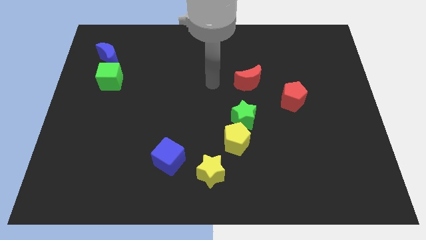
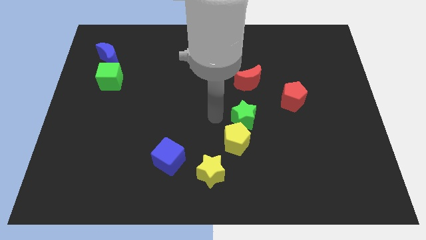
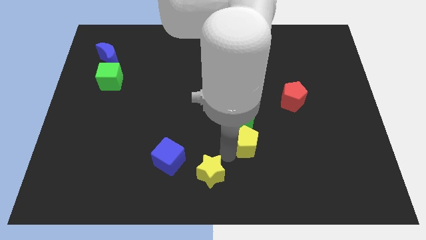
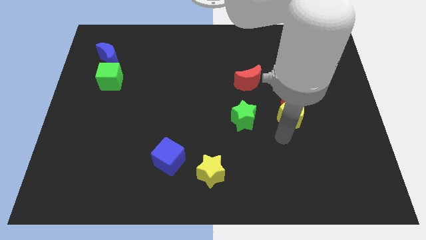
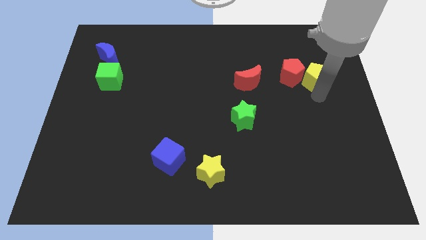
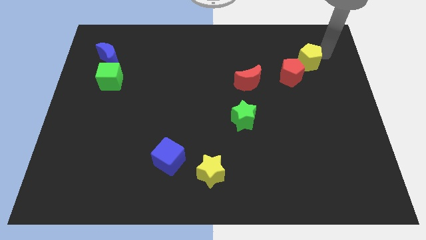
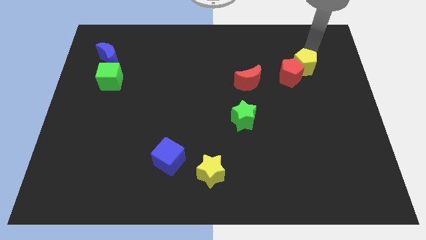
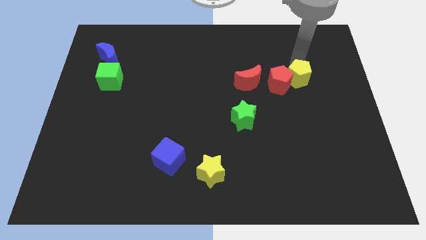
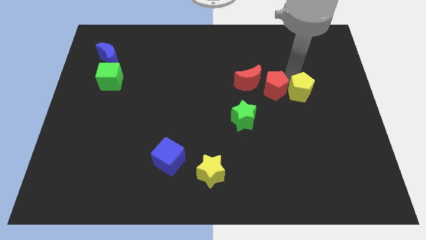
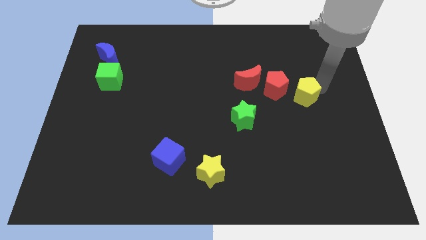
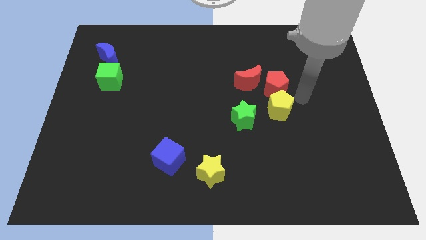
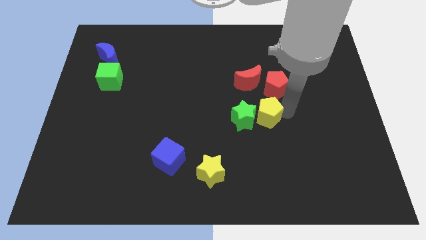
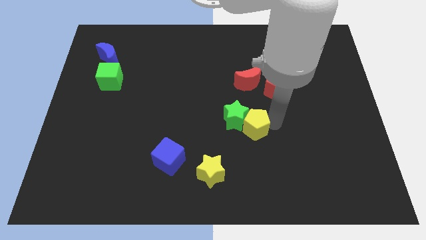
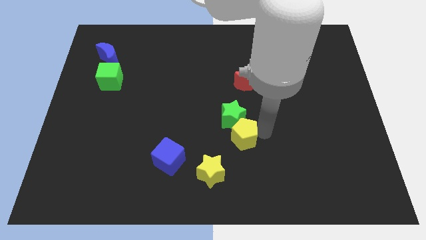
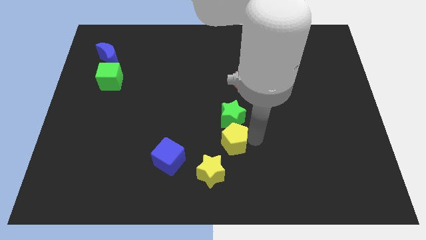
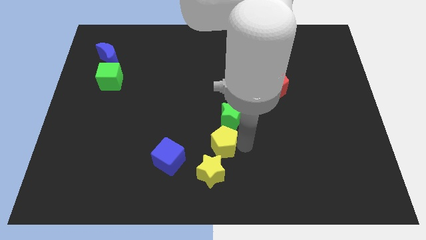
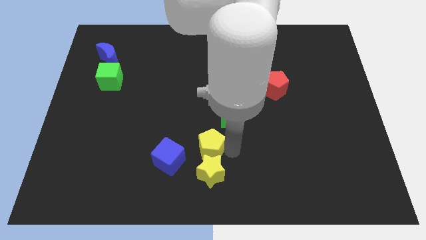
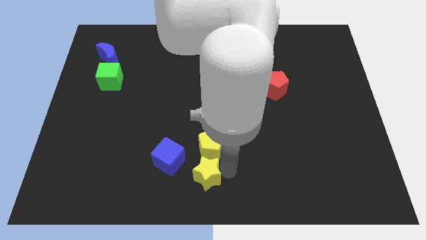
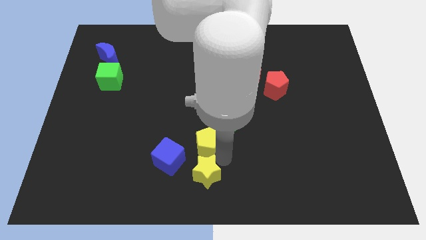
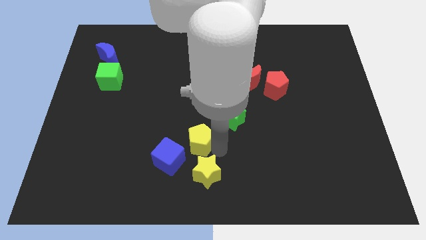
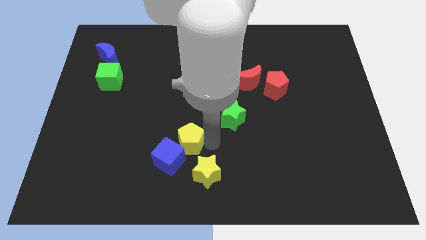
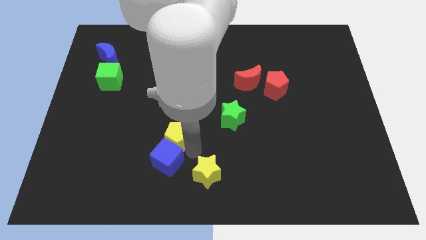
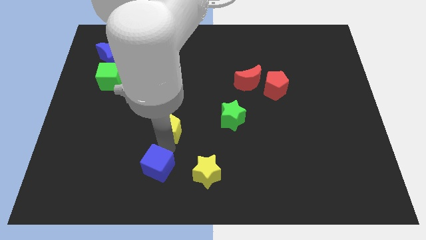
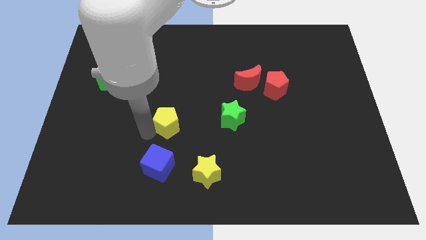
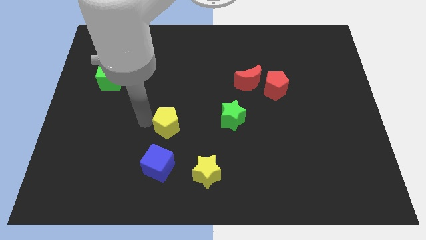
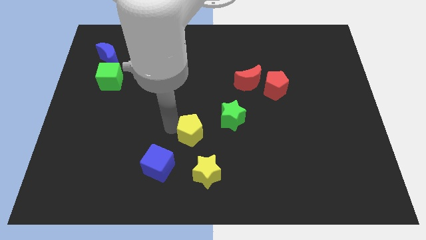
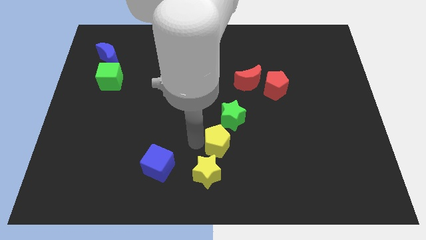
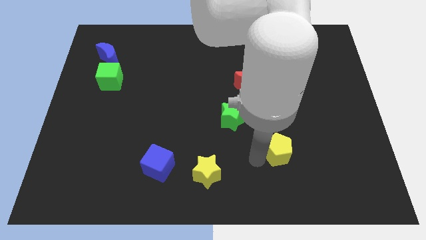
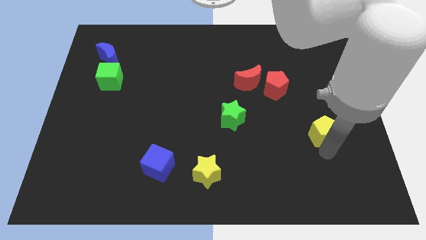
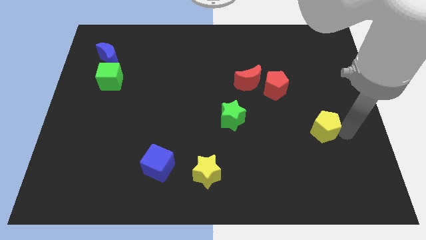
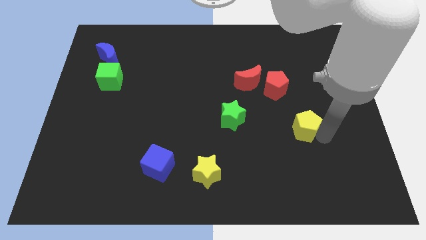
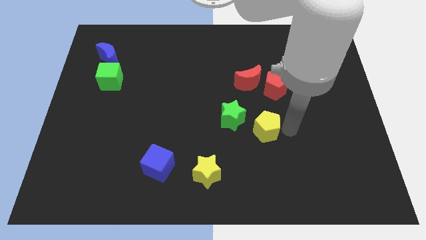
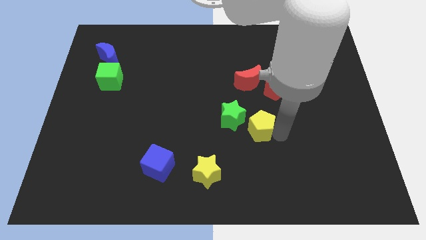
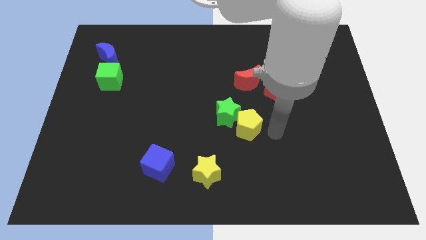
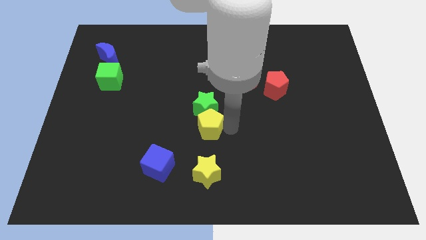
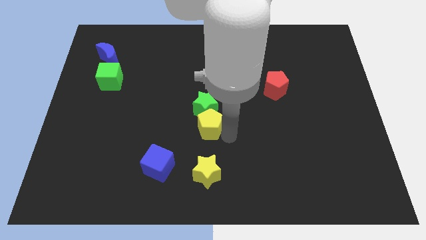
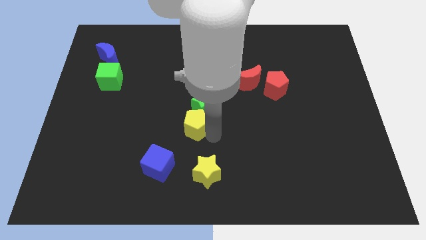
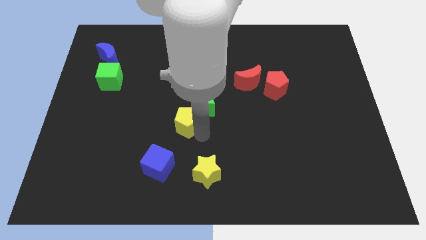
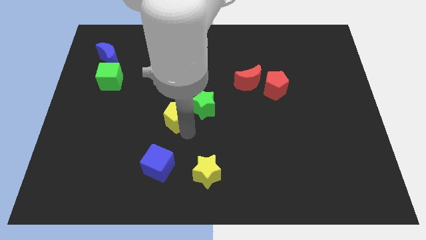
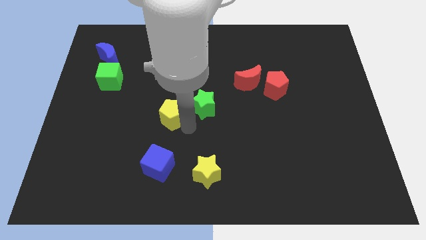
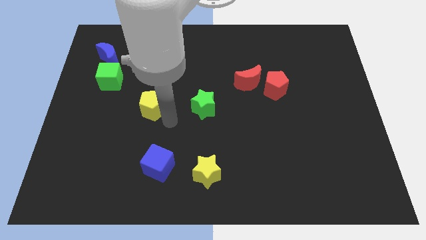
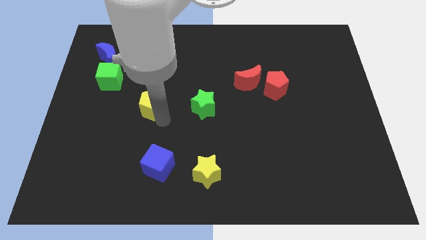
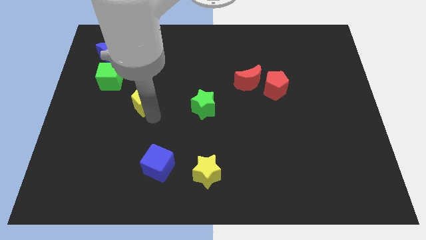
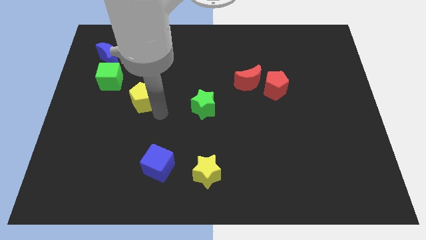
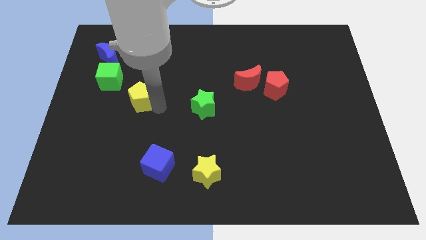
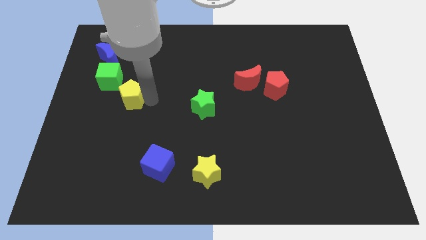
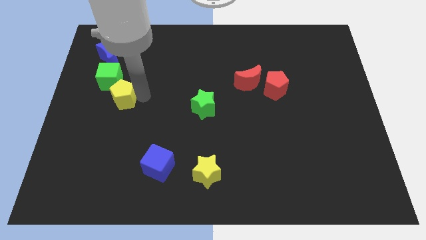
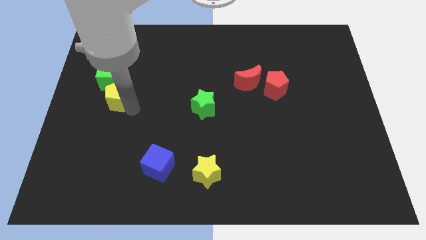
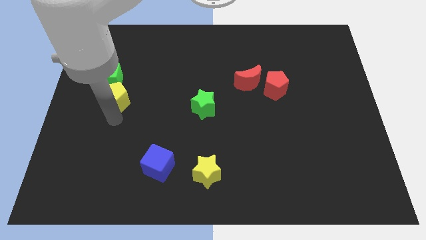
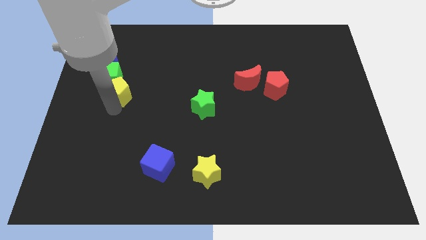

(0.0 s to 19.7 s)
push the yellow pentagon next to the green cube

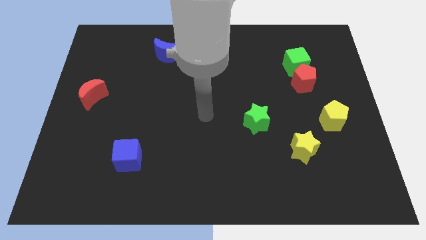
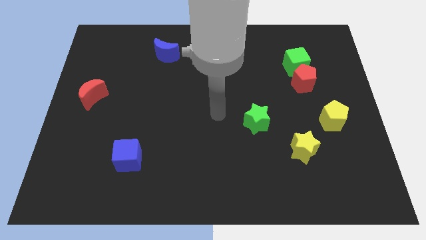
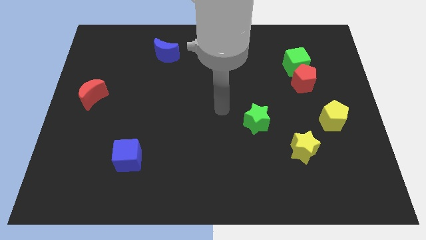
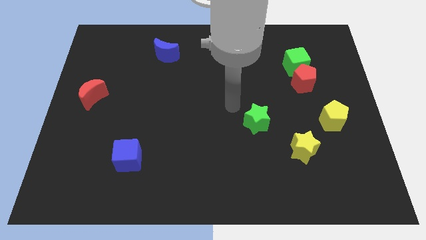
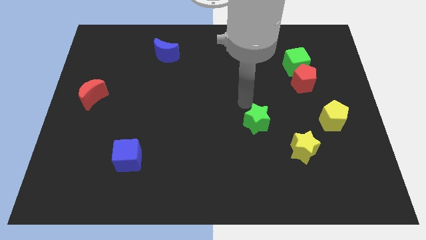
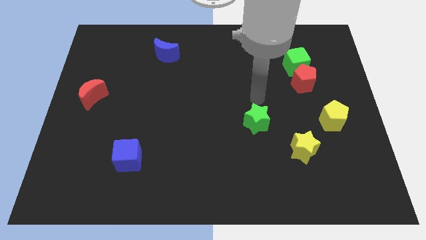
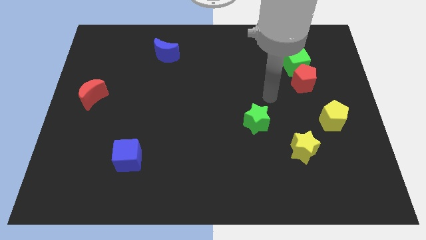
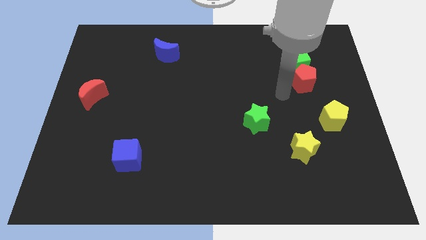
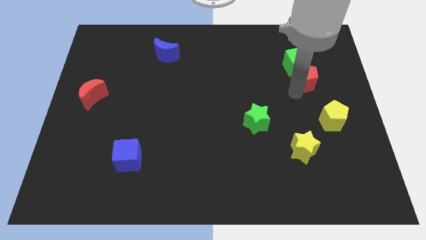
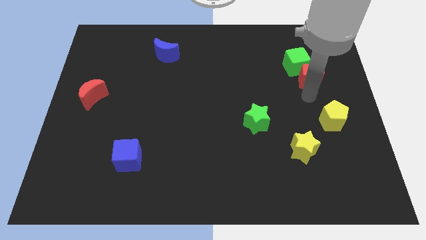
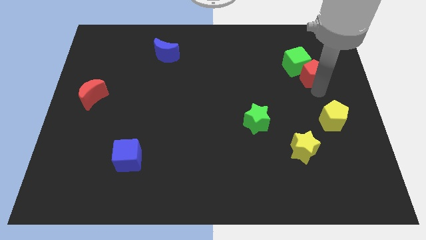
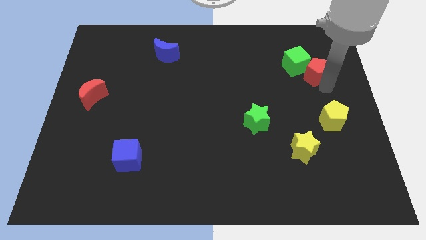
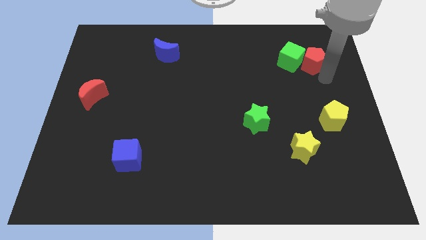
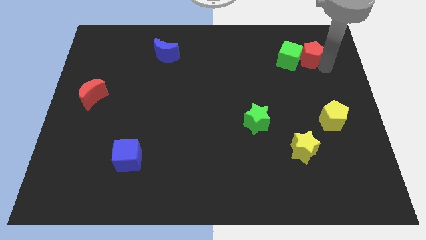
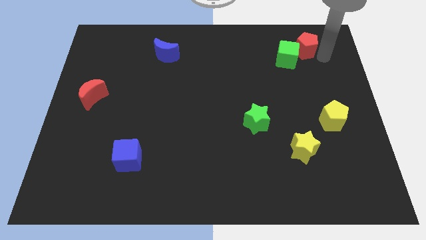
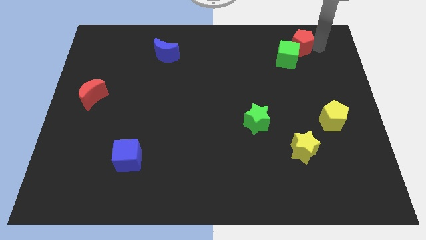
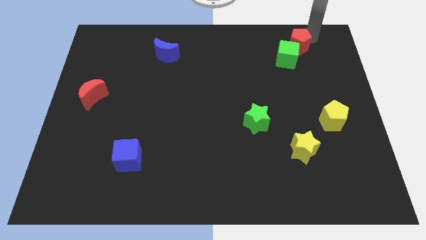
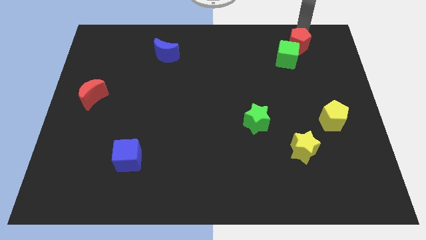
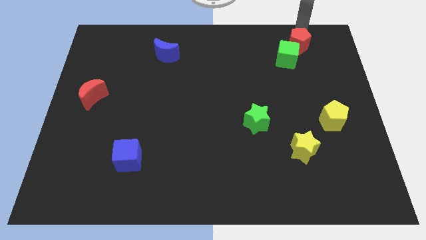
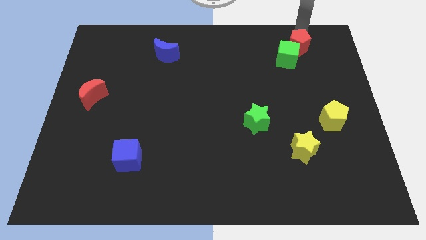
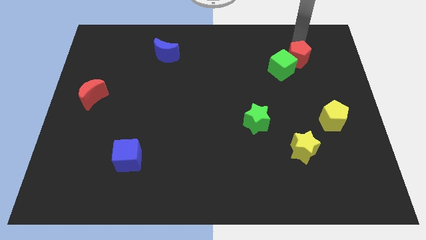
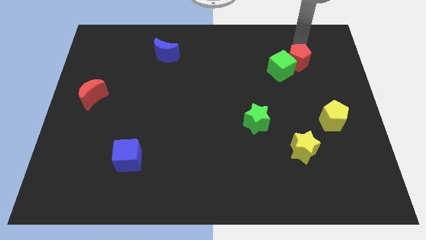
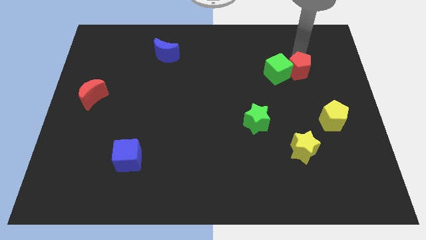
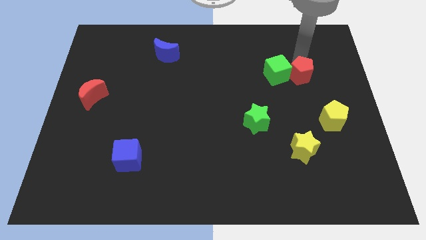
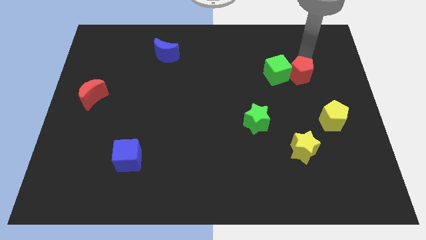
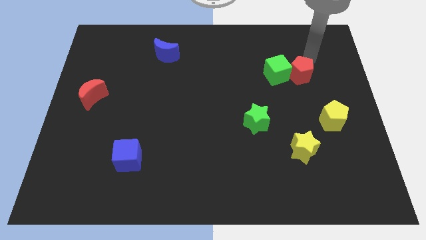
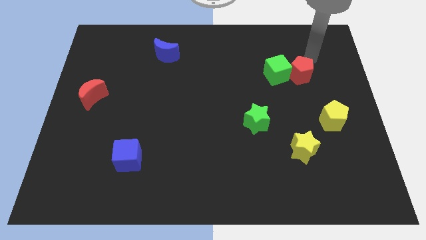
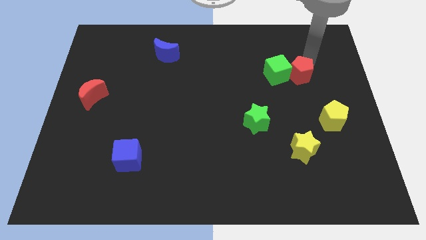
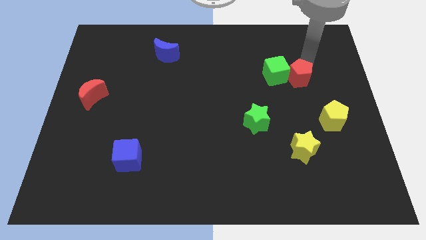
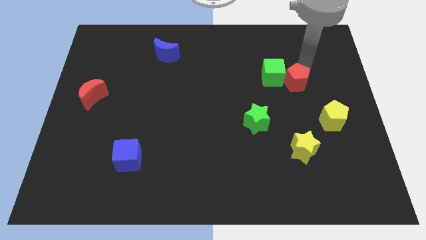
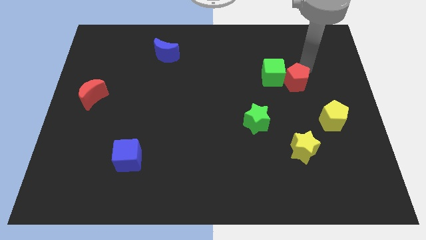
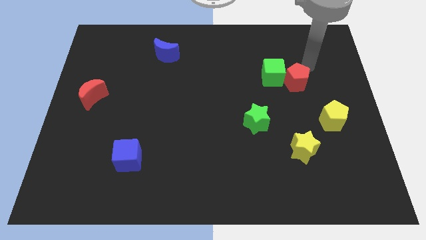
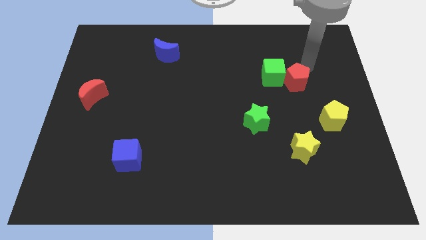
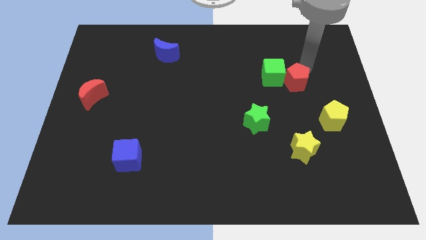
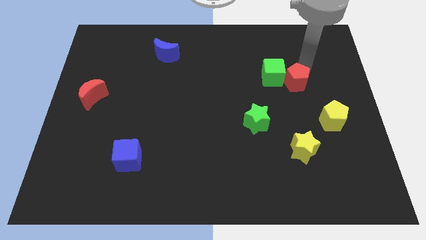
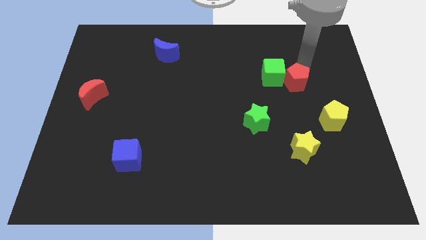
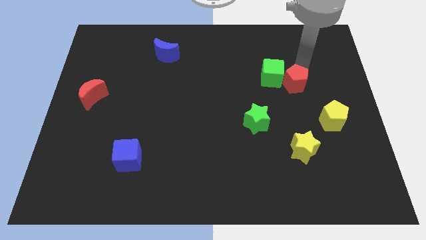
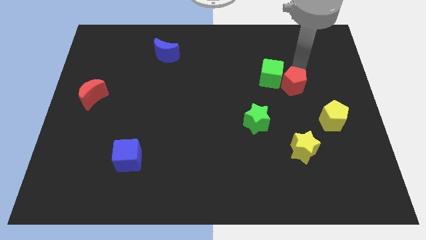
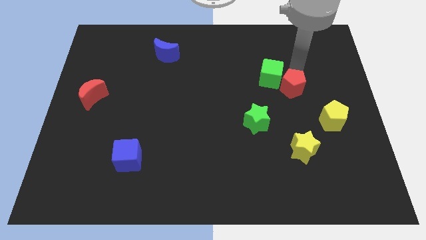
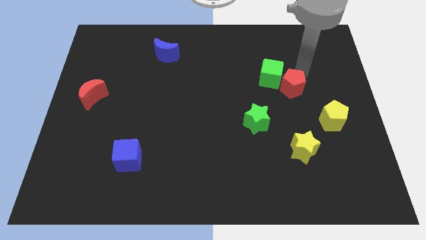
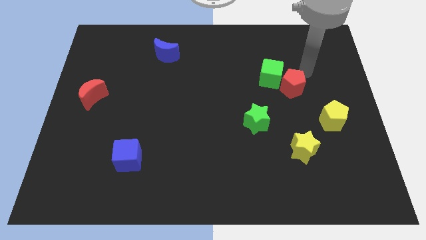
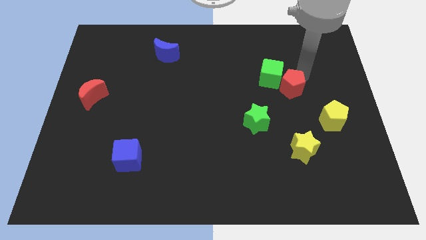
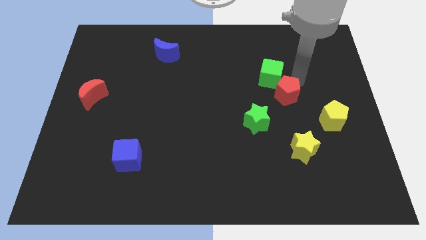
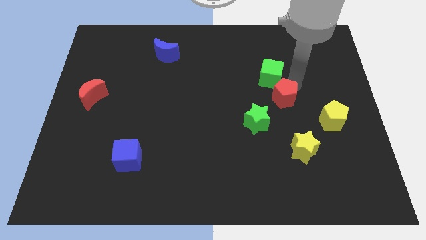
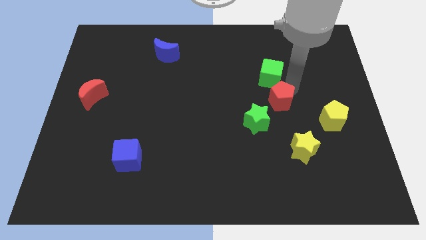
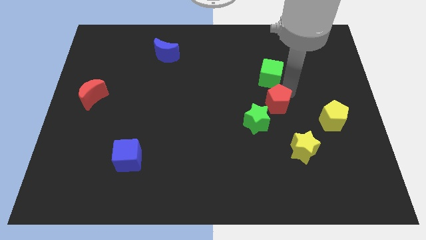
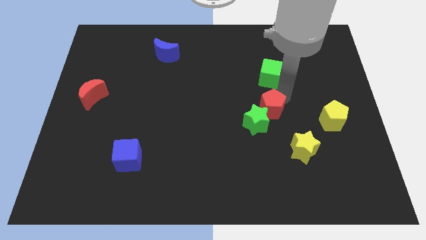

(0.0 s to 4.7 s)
put the red pentagon towards the green star
